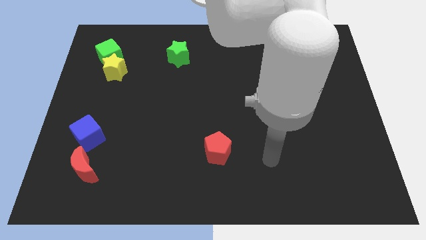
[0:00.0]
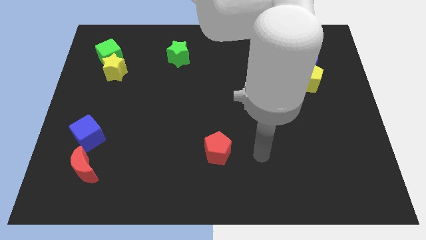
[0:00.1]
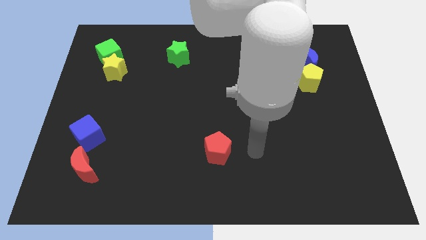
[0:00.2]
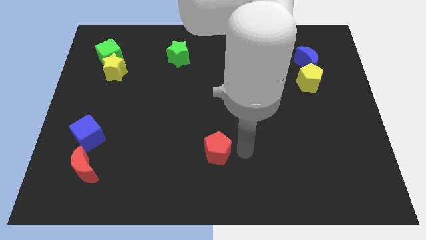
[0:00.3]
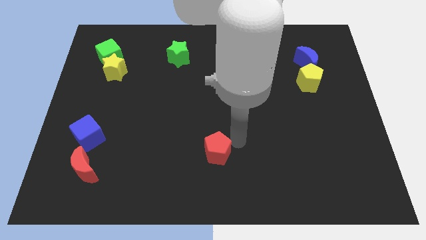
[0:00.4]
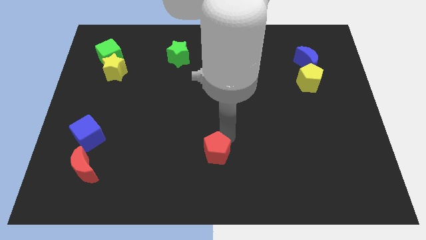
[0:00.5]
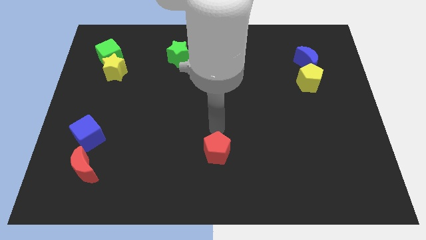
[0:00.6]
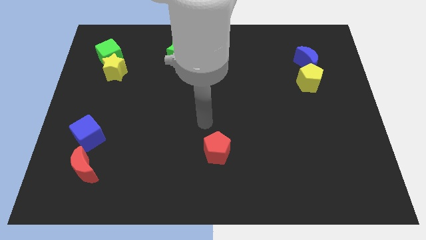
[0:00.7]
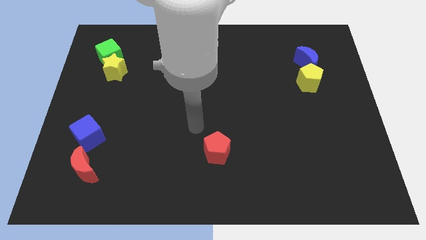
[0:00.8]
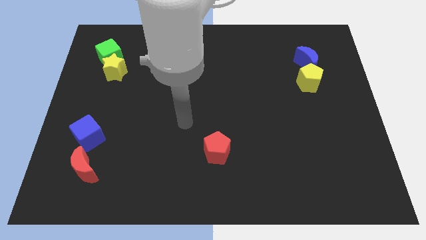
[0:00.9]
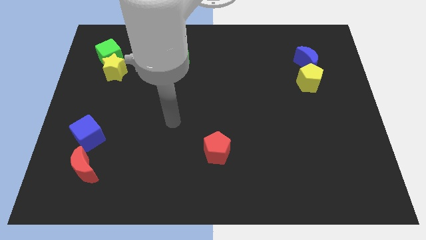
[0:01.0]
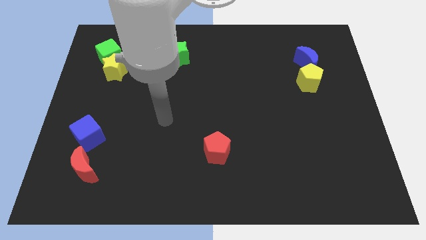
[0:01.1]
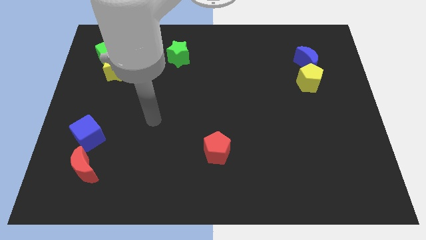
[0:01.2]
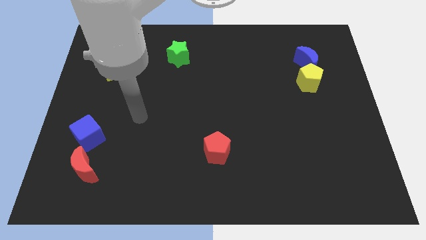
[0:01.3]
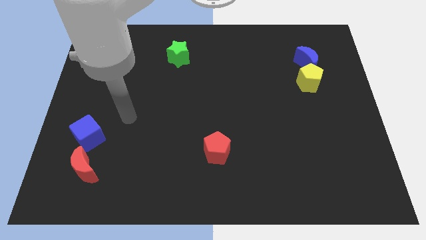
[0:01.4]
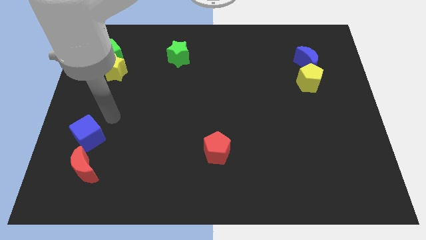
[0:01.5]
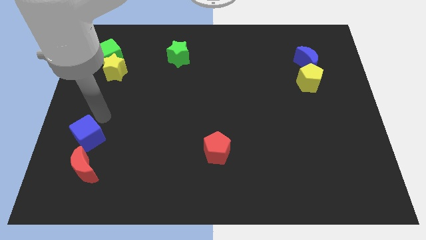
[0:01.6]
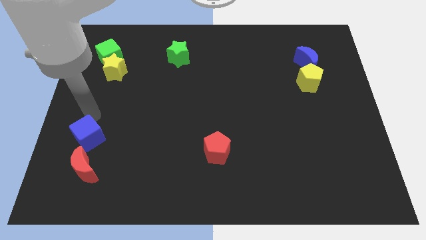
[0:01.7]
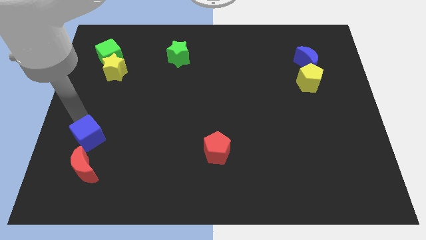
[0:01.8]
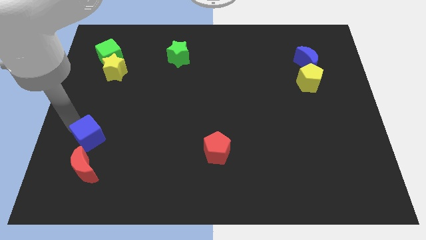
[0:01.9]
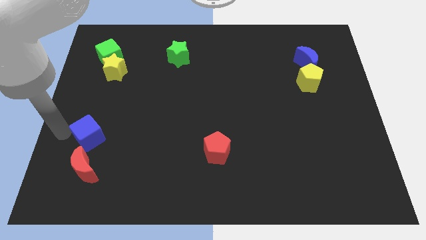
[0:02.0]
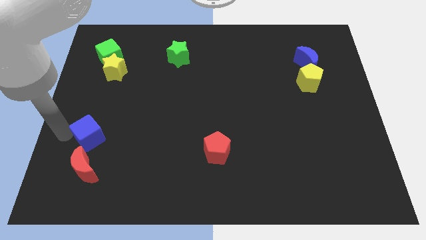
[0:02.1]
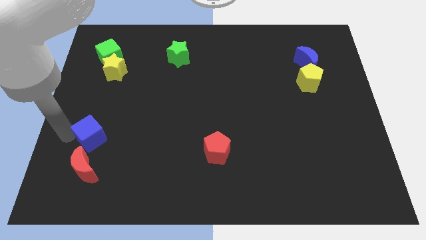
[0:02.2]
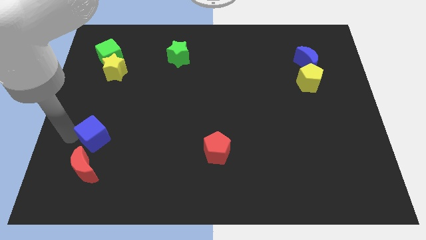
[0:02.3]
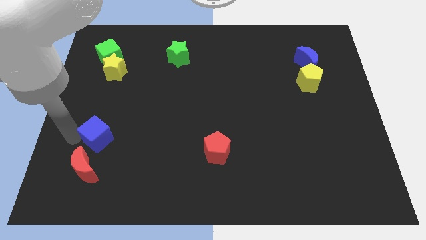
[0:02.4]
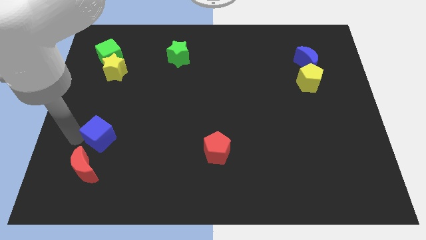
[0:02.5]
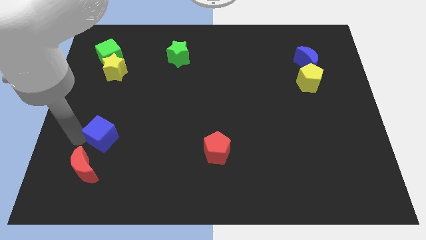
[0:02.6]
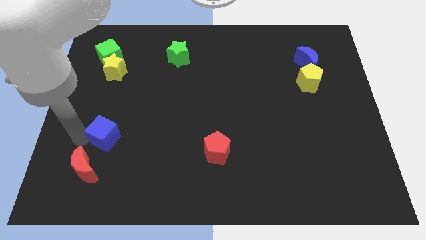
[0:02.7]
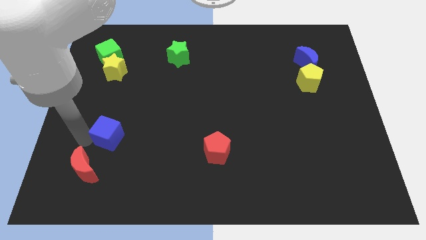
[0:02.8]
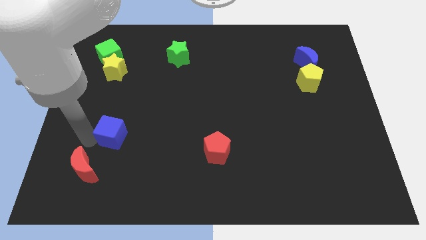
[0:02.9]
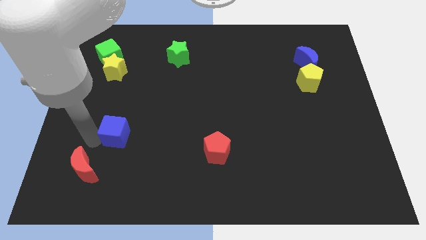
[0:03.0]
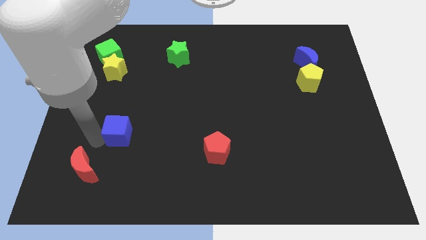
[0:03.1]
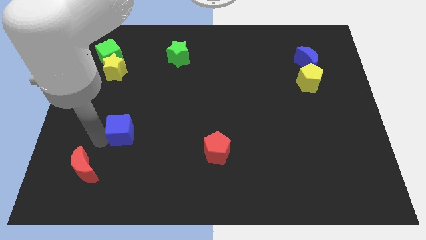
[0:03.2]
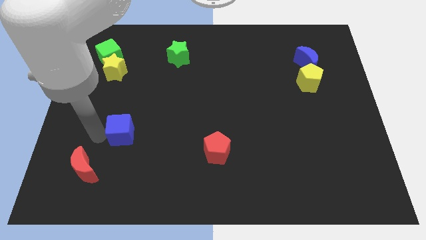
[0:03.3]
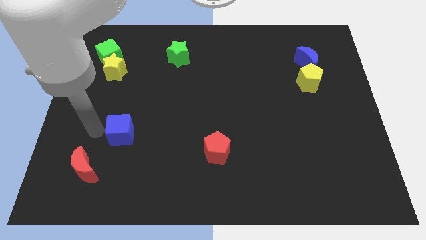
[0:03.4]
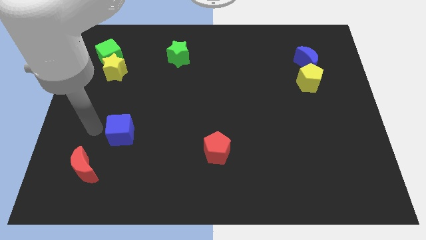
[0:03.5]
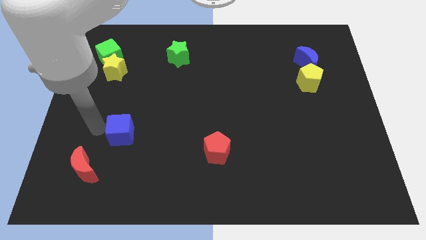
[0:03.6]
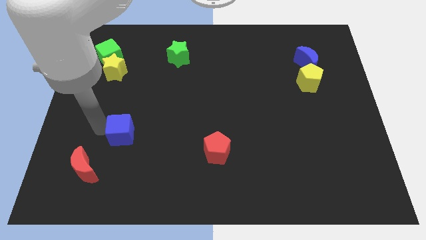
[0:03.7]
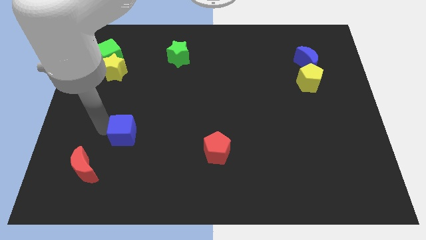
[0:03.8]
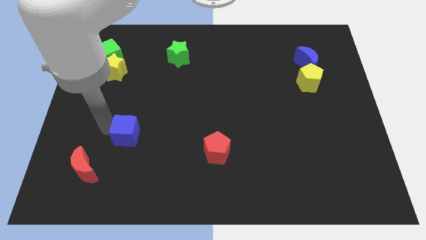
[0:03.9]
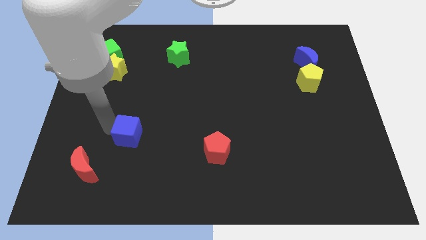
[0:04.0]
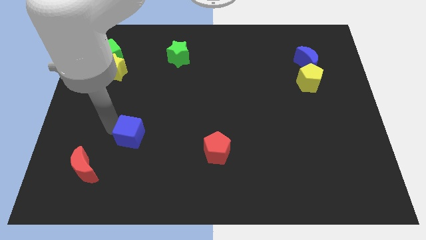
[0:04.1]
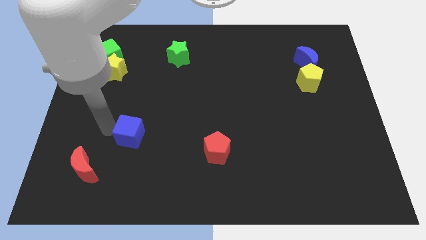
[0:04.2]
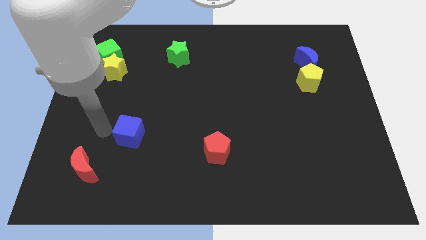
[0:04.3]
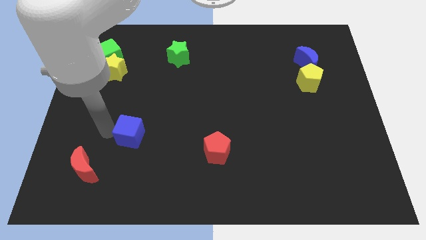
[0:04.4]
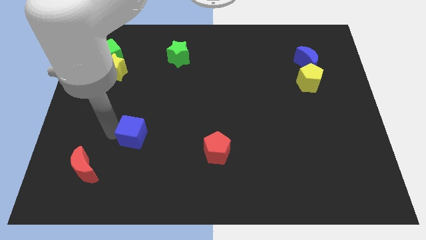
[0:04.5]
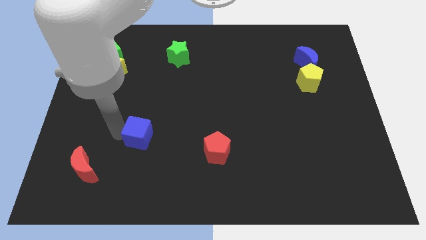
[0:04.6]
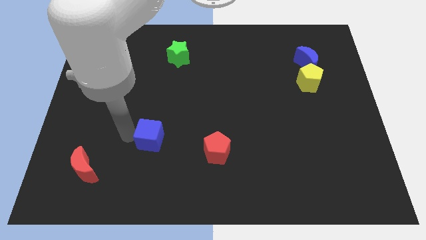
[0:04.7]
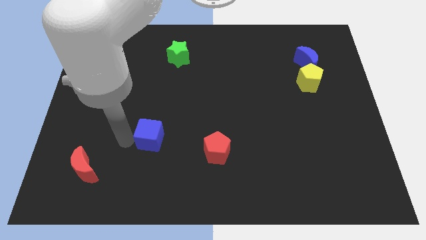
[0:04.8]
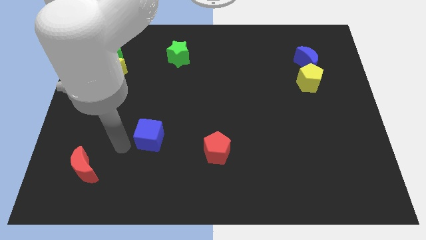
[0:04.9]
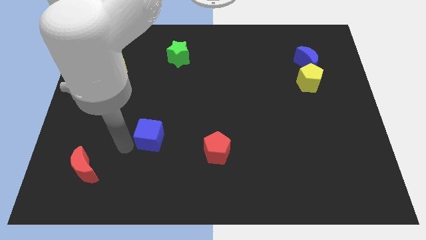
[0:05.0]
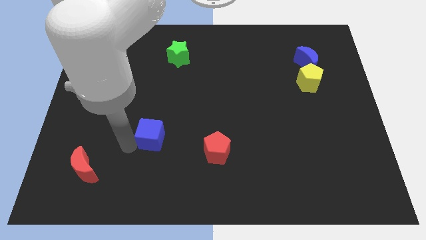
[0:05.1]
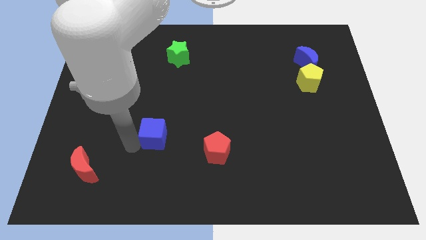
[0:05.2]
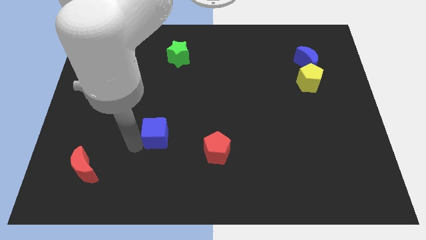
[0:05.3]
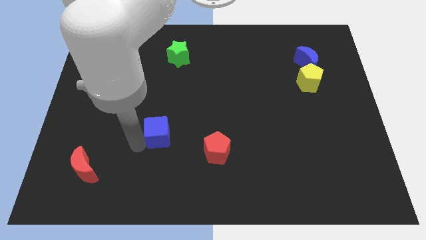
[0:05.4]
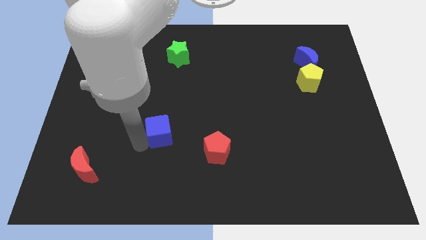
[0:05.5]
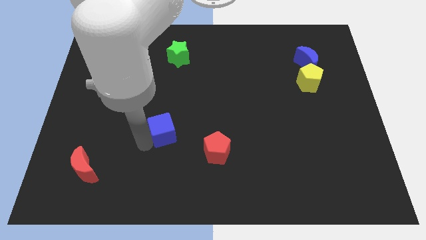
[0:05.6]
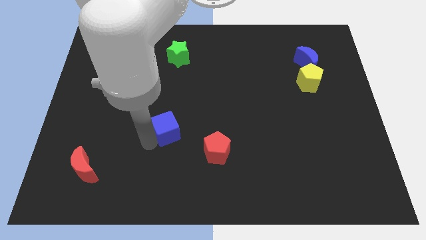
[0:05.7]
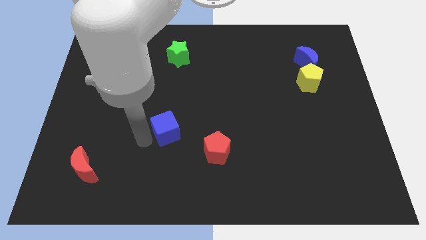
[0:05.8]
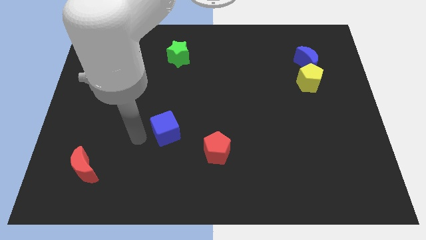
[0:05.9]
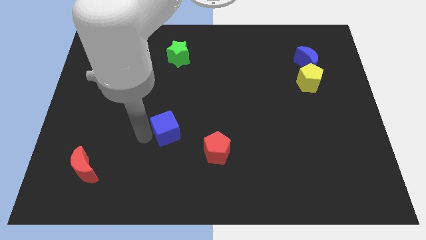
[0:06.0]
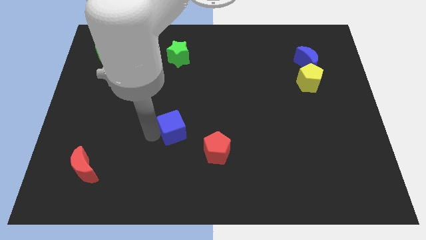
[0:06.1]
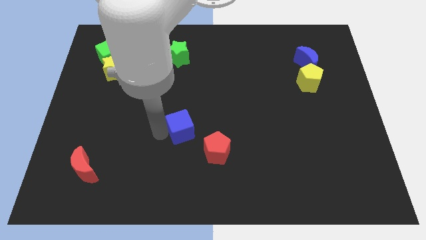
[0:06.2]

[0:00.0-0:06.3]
slide the blue cube to the right

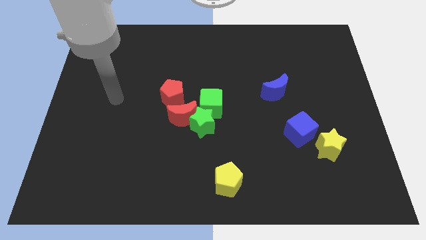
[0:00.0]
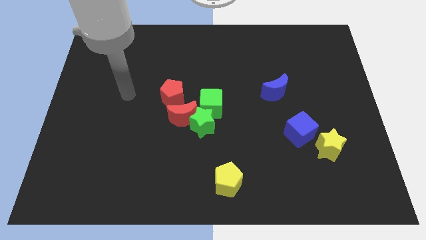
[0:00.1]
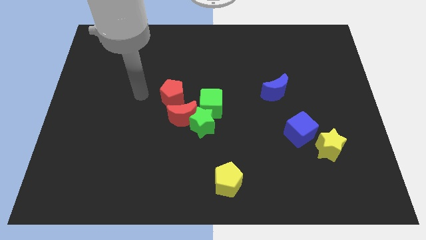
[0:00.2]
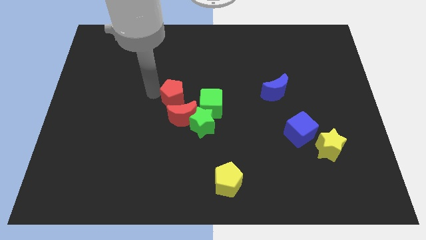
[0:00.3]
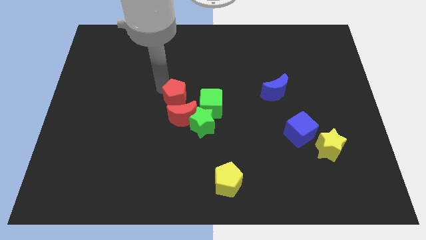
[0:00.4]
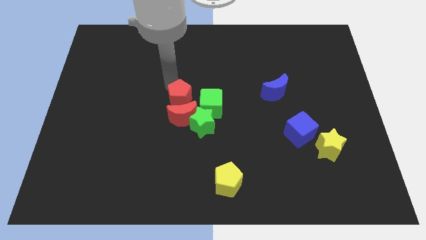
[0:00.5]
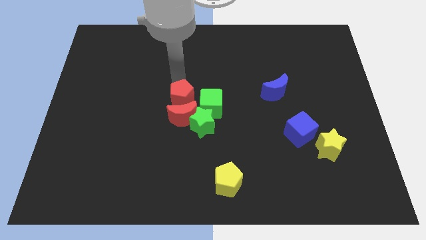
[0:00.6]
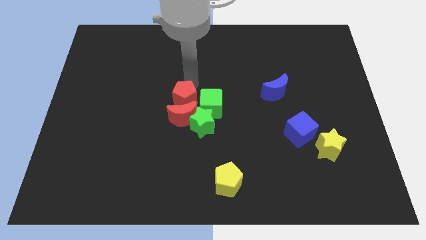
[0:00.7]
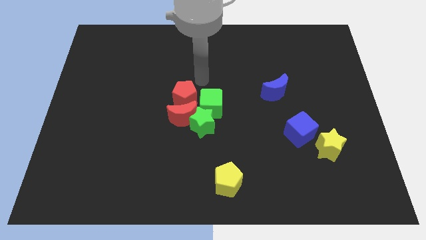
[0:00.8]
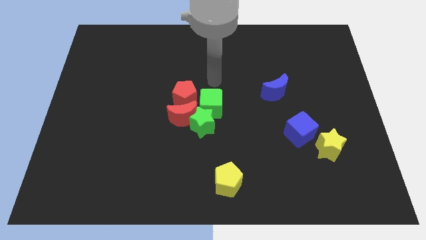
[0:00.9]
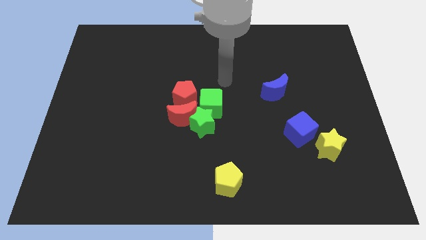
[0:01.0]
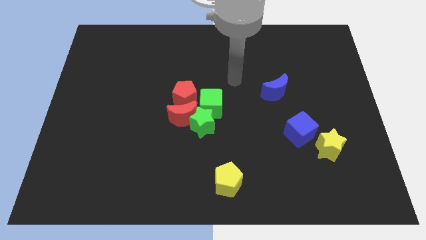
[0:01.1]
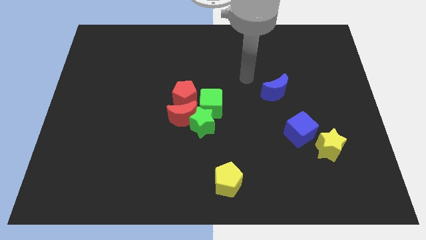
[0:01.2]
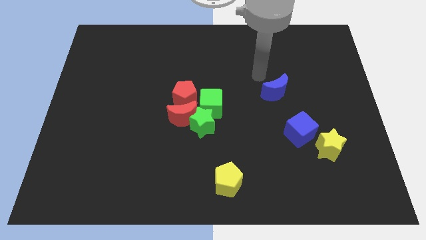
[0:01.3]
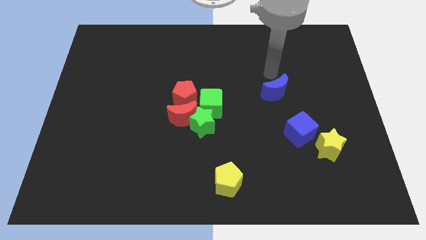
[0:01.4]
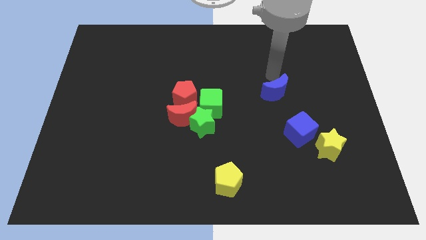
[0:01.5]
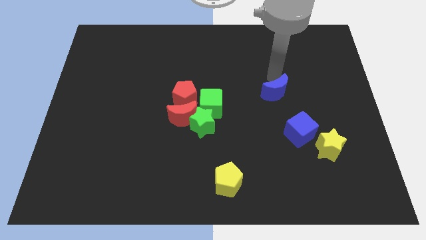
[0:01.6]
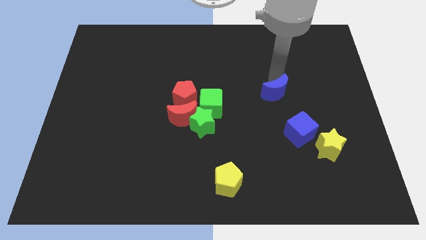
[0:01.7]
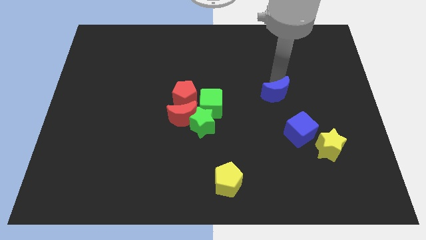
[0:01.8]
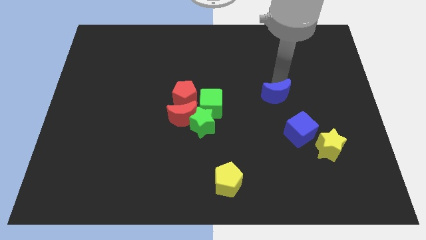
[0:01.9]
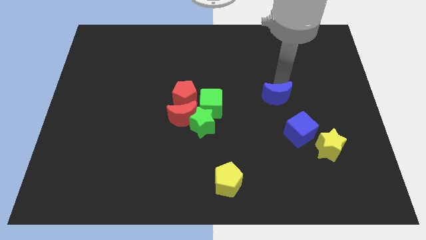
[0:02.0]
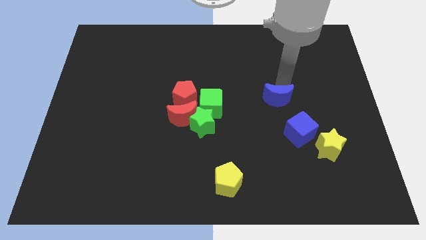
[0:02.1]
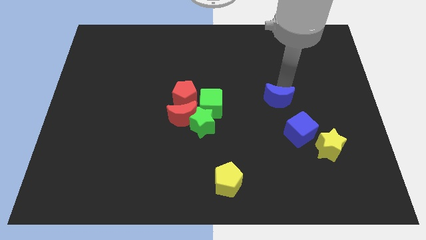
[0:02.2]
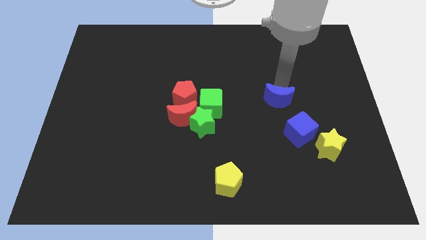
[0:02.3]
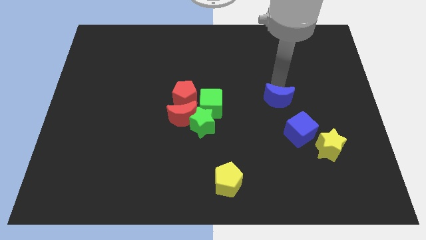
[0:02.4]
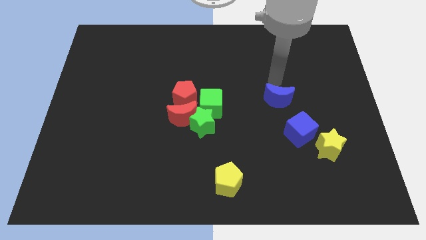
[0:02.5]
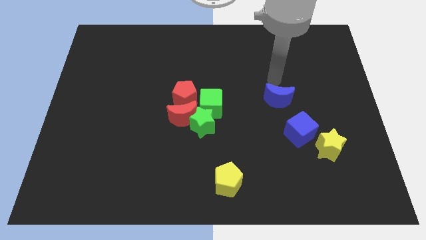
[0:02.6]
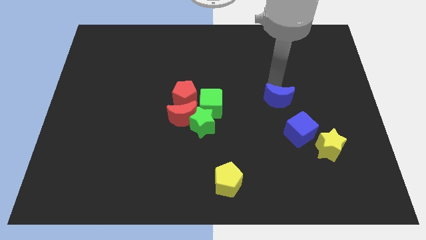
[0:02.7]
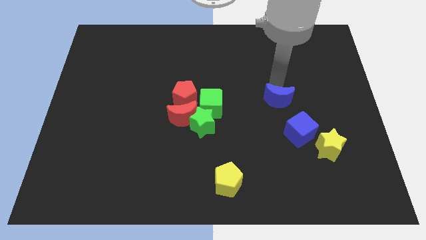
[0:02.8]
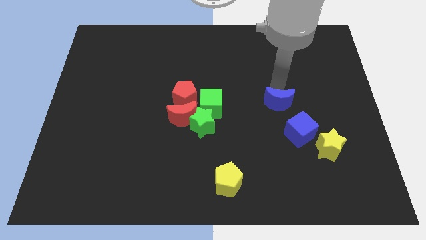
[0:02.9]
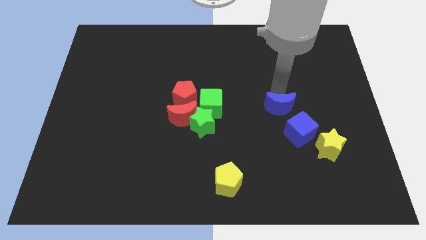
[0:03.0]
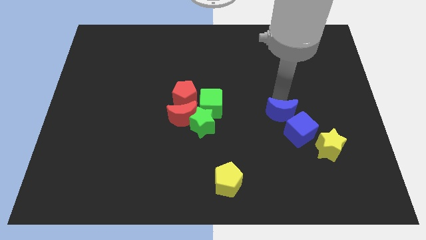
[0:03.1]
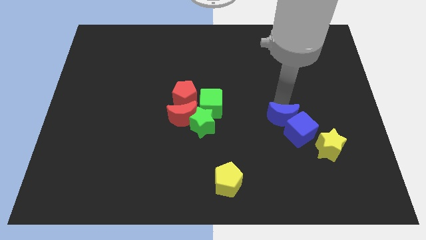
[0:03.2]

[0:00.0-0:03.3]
push the blue moon downwards a bit
